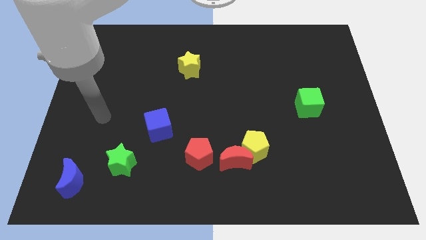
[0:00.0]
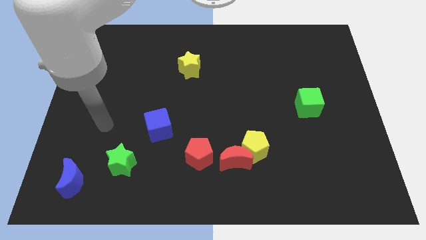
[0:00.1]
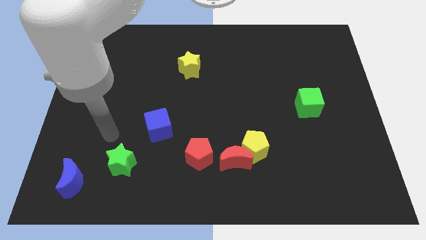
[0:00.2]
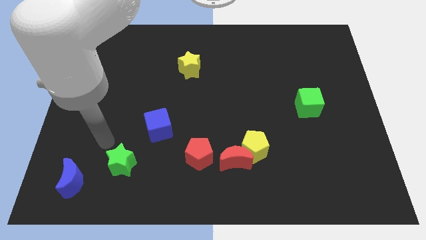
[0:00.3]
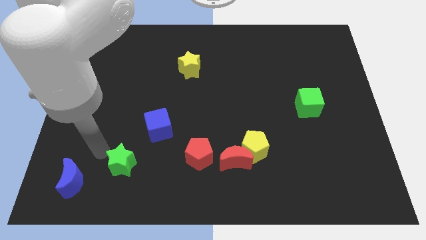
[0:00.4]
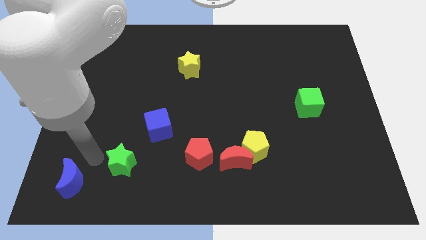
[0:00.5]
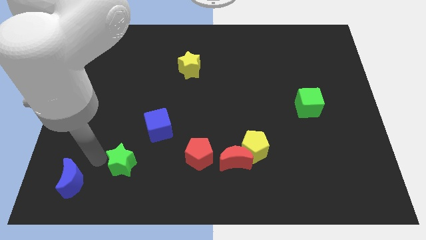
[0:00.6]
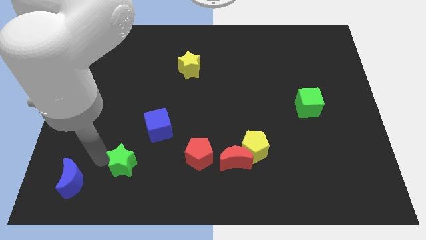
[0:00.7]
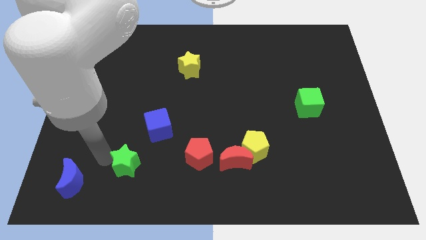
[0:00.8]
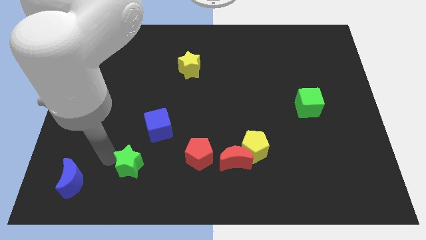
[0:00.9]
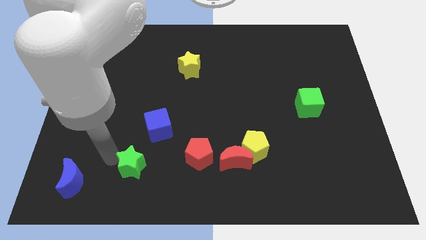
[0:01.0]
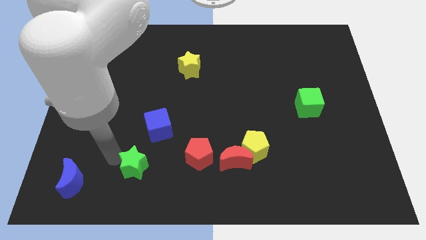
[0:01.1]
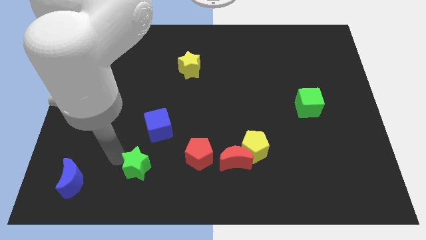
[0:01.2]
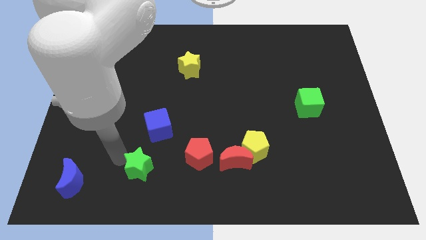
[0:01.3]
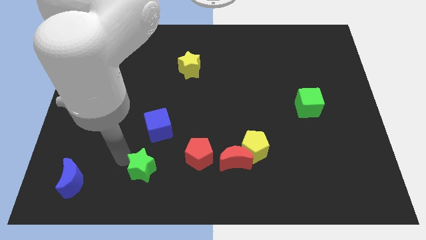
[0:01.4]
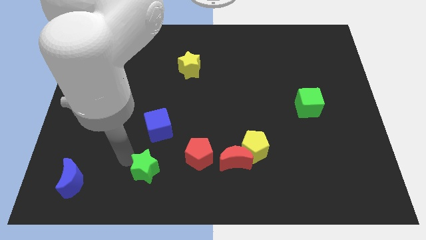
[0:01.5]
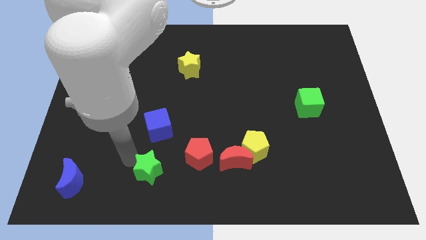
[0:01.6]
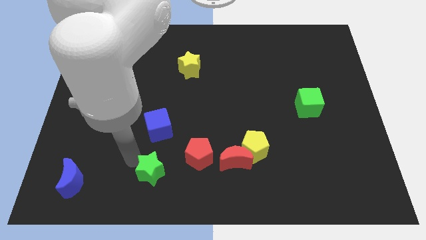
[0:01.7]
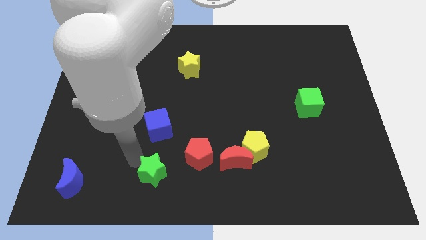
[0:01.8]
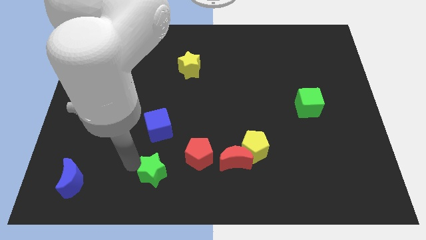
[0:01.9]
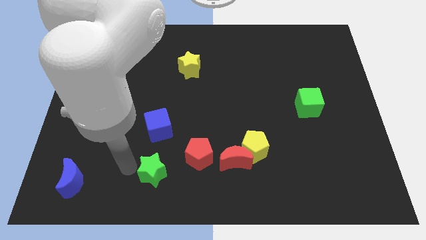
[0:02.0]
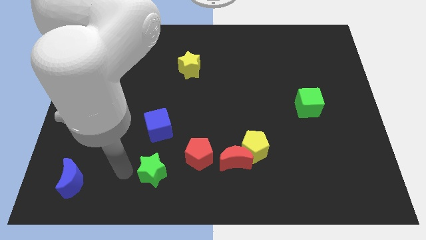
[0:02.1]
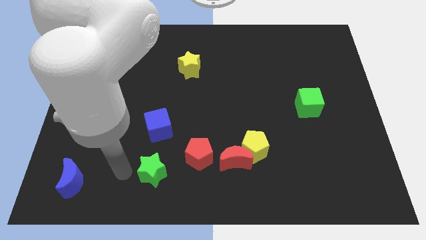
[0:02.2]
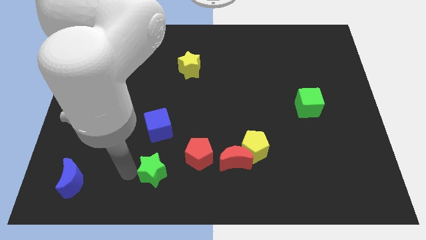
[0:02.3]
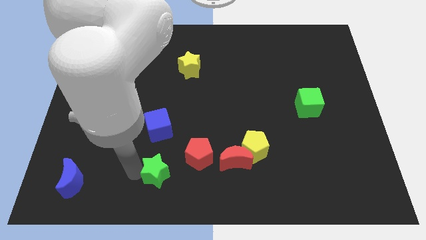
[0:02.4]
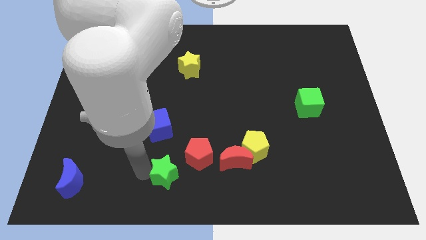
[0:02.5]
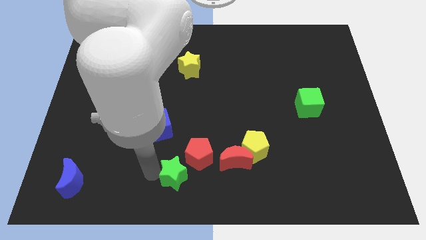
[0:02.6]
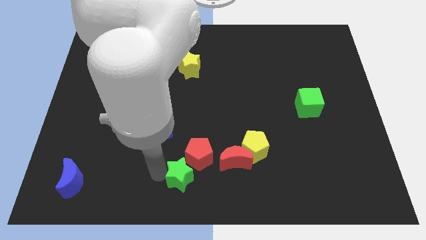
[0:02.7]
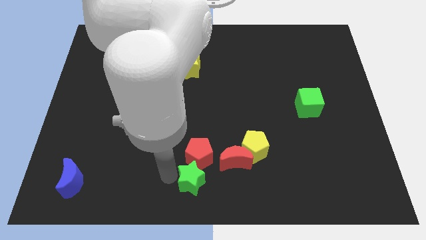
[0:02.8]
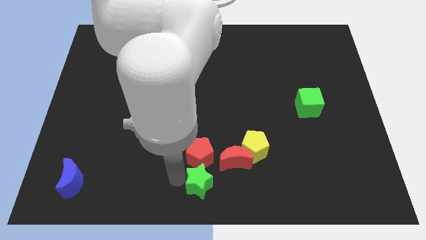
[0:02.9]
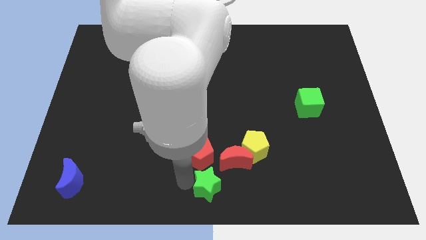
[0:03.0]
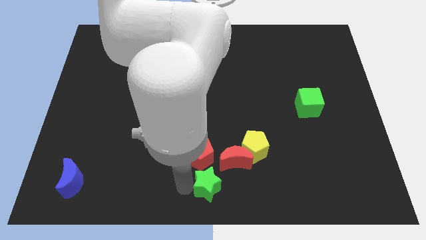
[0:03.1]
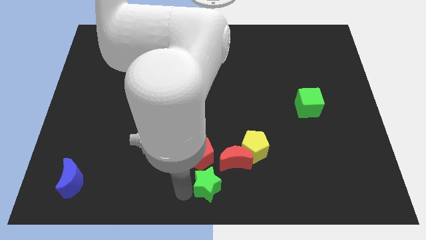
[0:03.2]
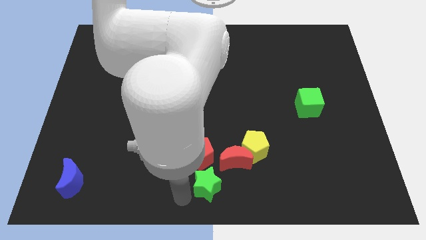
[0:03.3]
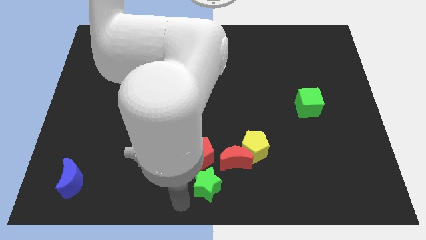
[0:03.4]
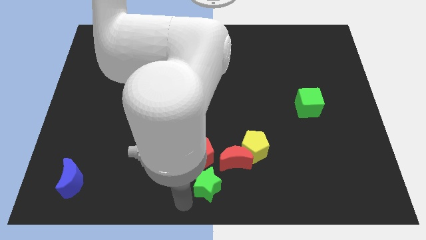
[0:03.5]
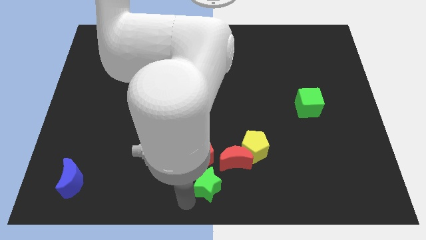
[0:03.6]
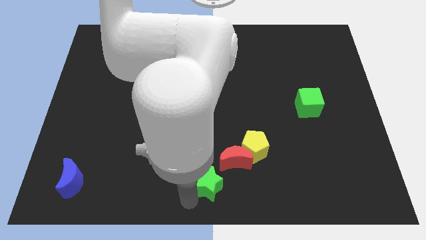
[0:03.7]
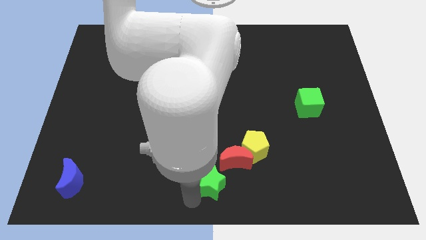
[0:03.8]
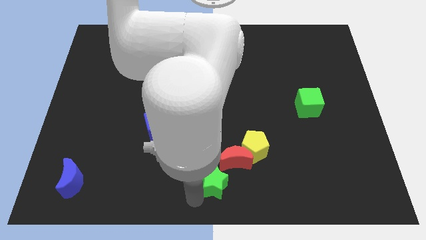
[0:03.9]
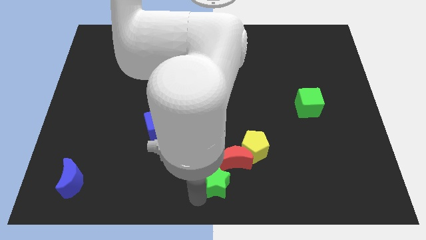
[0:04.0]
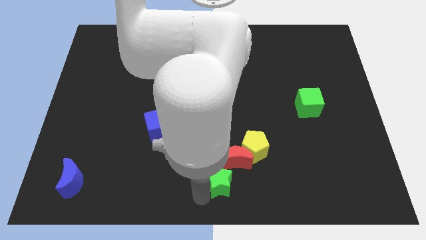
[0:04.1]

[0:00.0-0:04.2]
push the green star towards the red moon

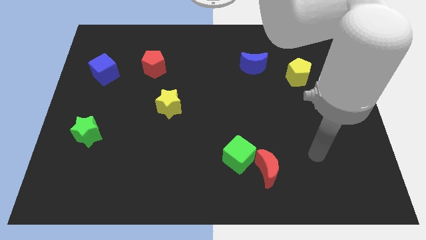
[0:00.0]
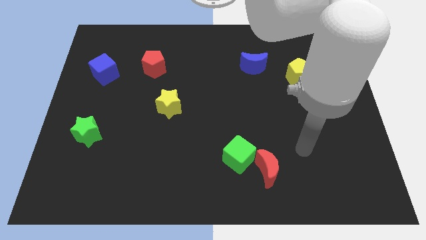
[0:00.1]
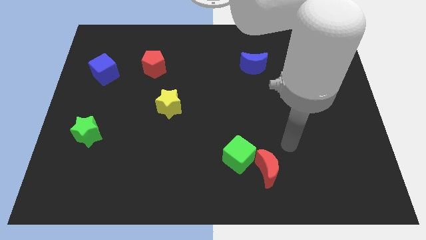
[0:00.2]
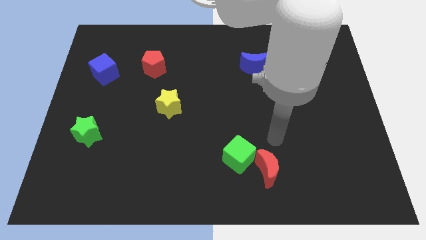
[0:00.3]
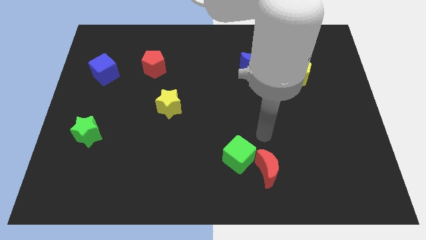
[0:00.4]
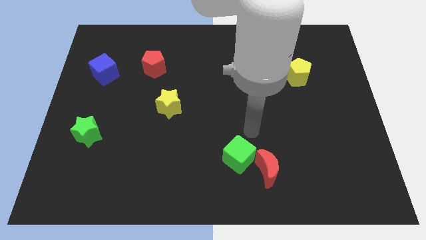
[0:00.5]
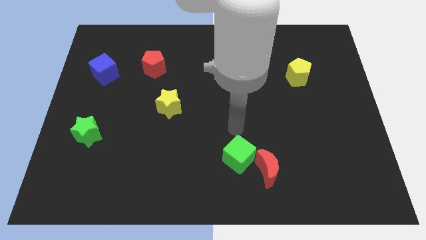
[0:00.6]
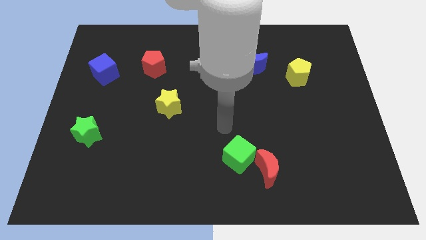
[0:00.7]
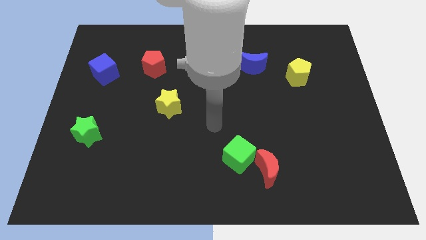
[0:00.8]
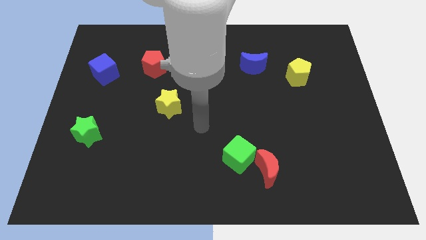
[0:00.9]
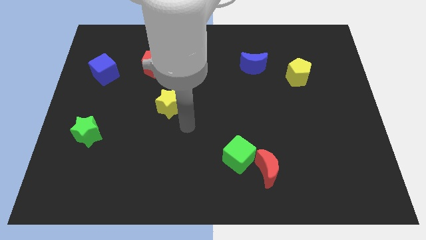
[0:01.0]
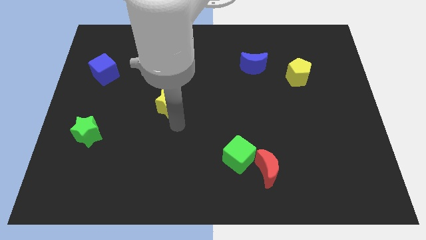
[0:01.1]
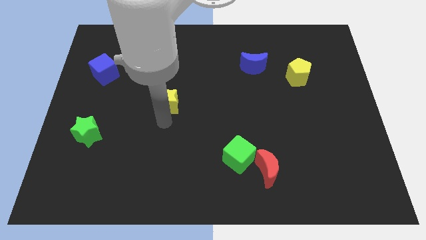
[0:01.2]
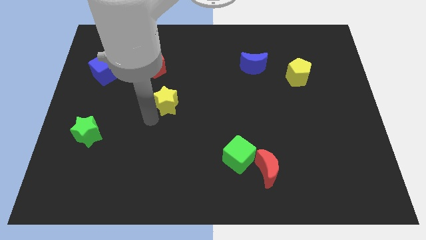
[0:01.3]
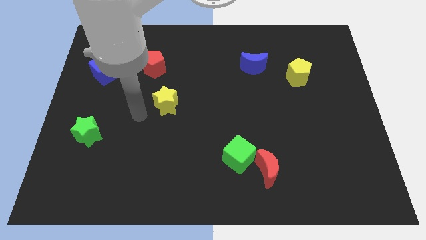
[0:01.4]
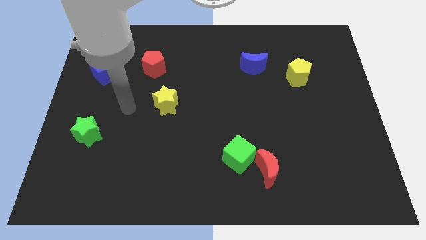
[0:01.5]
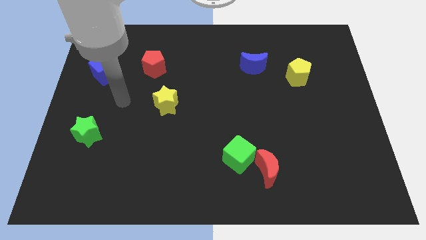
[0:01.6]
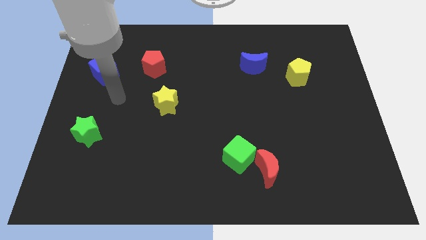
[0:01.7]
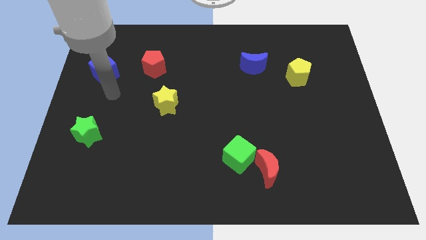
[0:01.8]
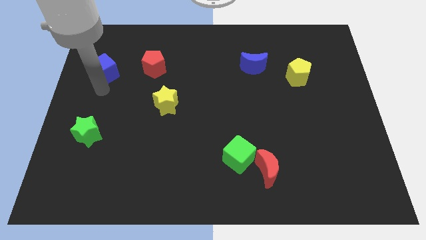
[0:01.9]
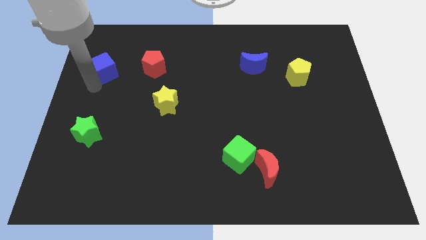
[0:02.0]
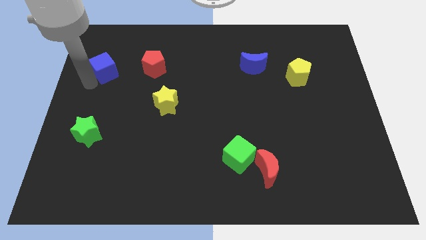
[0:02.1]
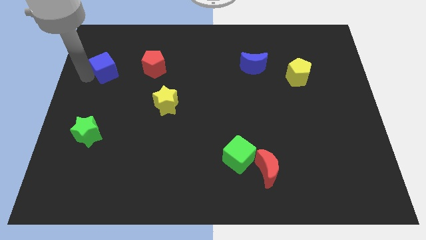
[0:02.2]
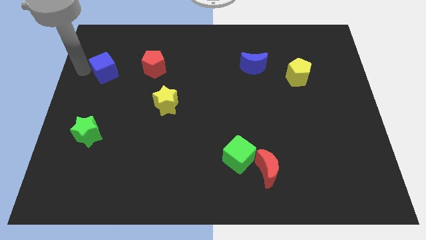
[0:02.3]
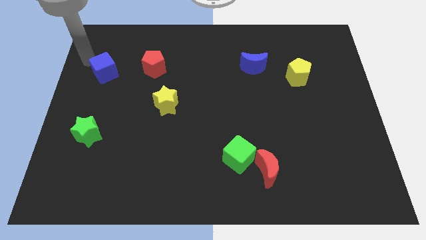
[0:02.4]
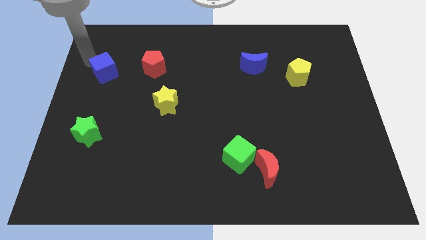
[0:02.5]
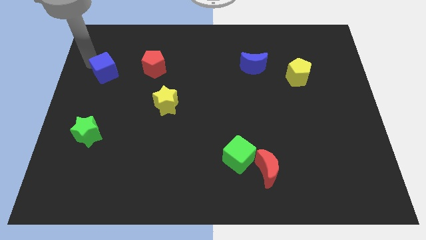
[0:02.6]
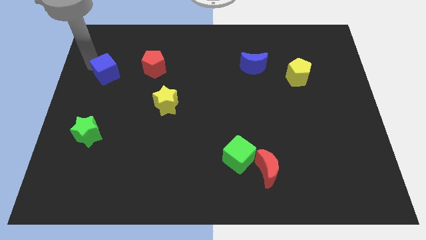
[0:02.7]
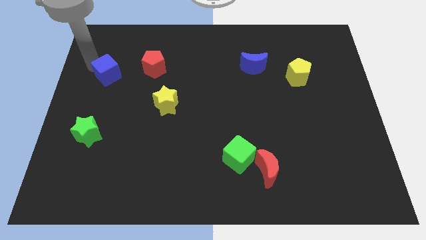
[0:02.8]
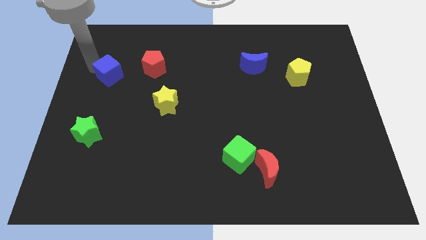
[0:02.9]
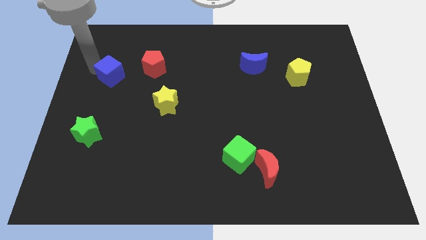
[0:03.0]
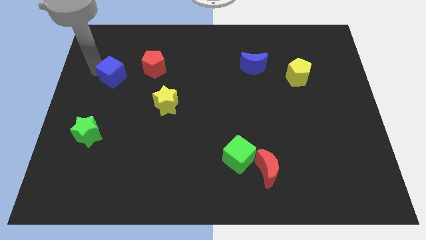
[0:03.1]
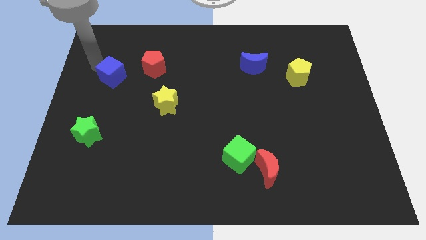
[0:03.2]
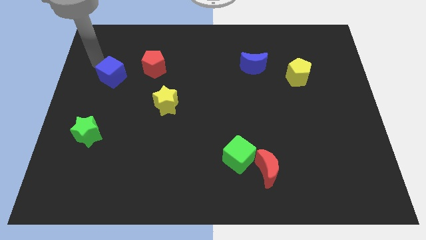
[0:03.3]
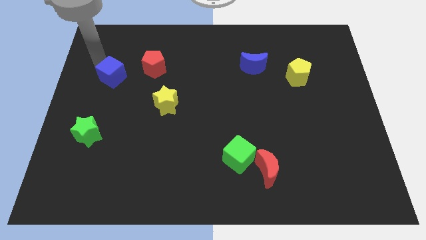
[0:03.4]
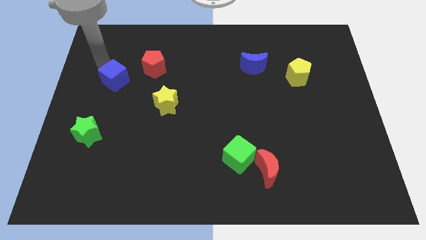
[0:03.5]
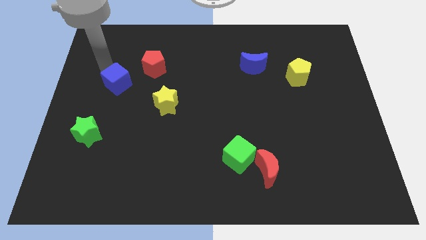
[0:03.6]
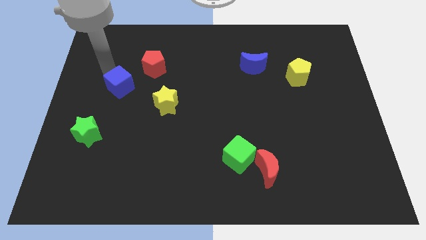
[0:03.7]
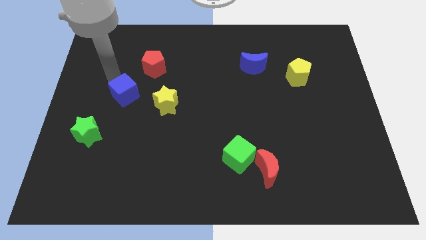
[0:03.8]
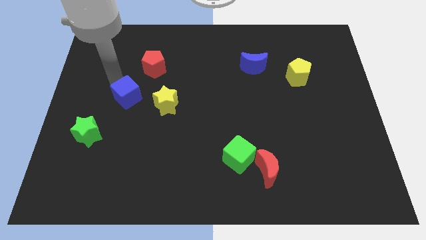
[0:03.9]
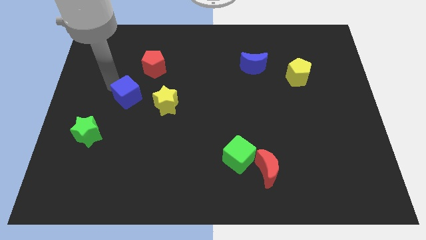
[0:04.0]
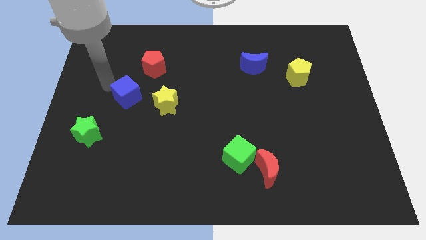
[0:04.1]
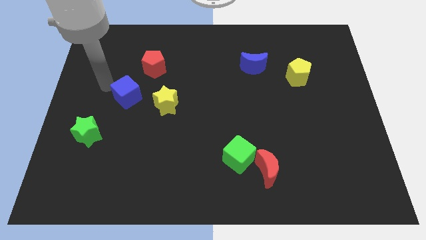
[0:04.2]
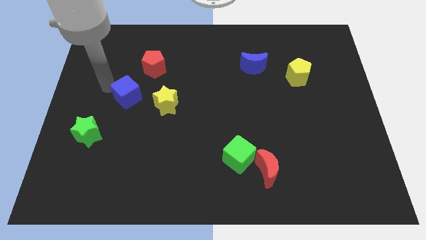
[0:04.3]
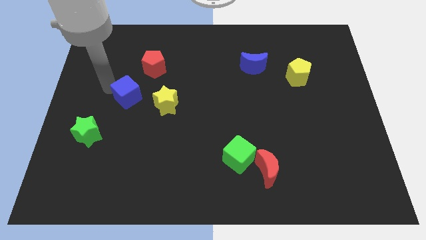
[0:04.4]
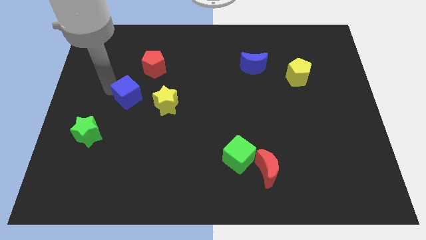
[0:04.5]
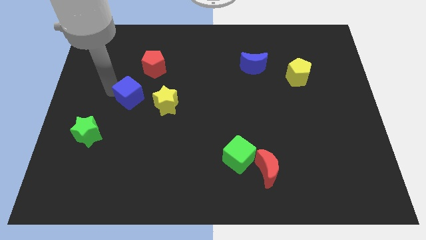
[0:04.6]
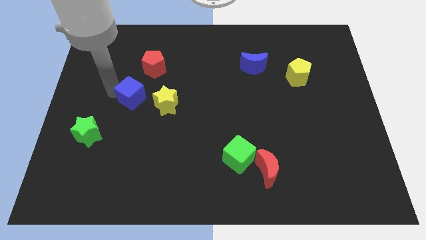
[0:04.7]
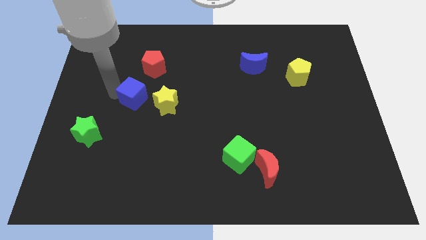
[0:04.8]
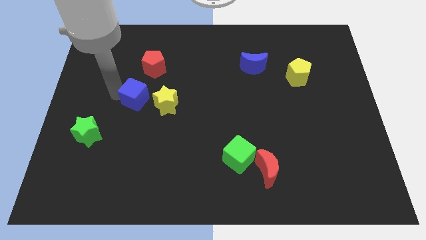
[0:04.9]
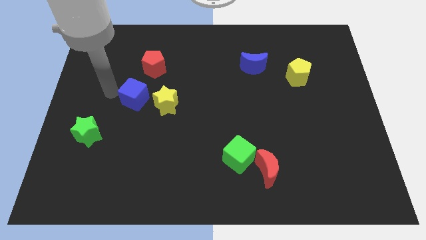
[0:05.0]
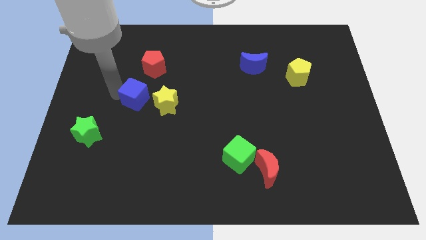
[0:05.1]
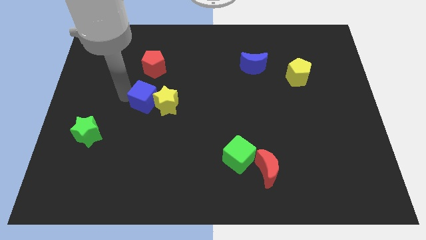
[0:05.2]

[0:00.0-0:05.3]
slide the blue cube next to the yellow star
